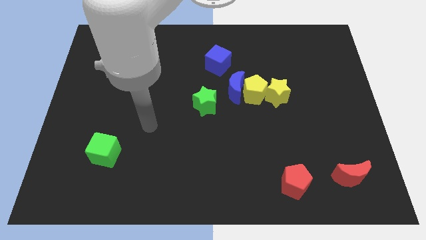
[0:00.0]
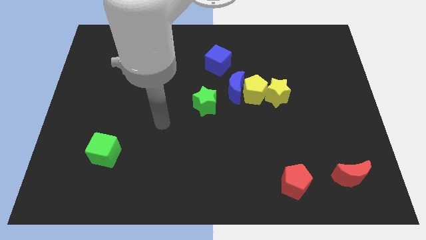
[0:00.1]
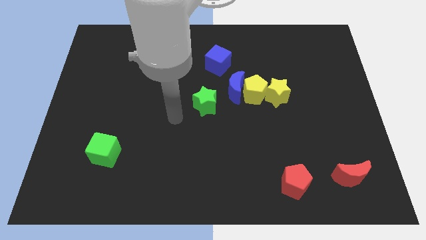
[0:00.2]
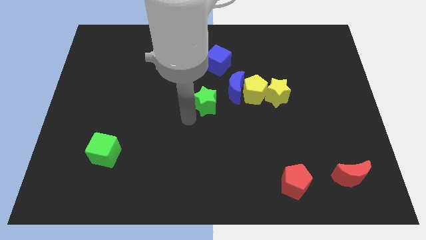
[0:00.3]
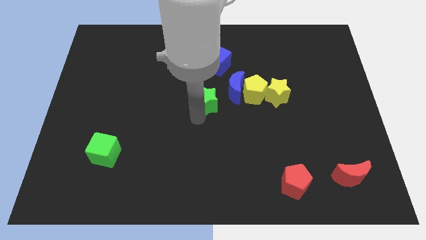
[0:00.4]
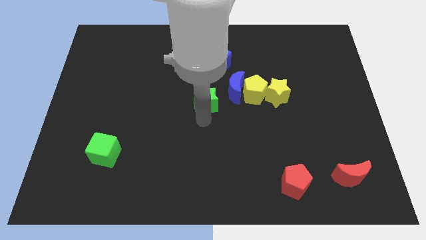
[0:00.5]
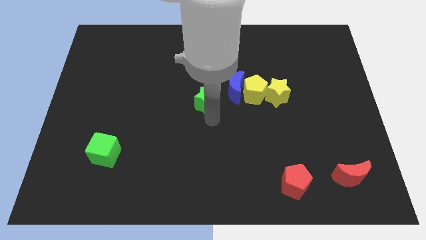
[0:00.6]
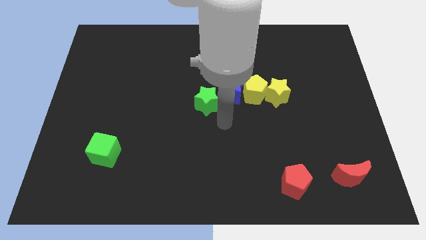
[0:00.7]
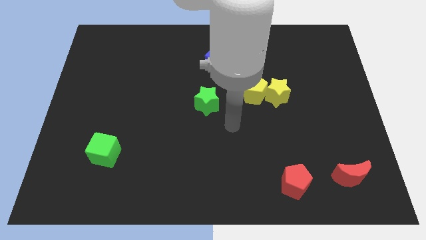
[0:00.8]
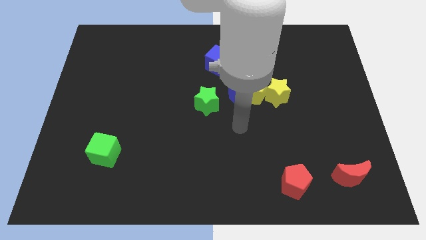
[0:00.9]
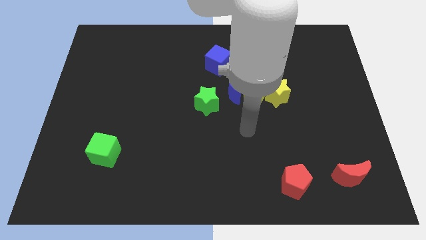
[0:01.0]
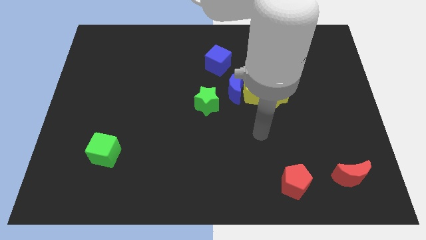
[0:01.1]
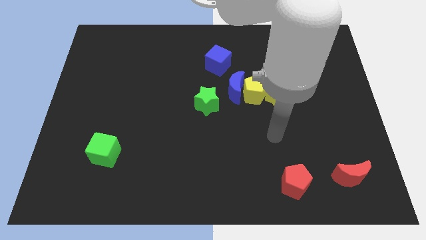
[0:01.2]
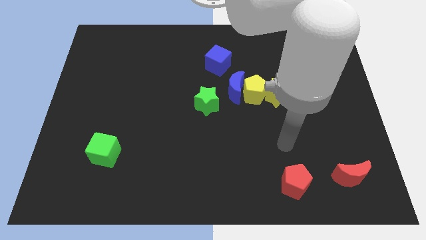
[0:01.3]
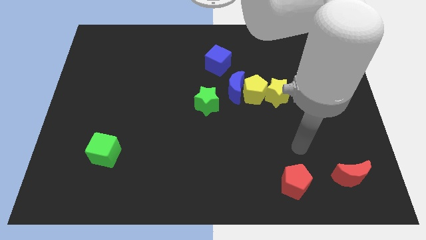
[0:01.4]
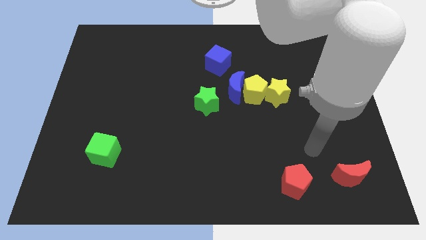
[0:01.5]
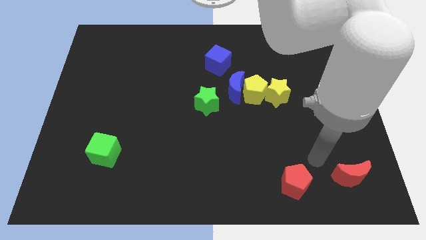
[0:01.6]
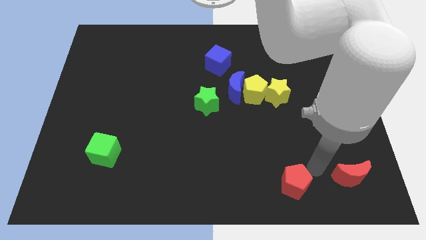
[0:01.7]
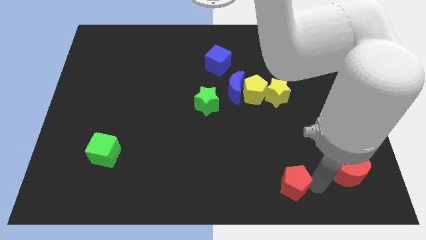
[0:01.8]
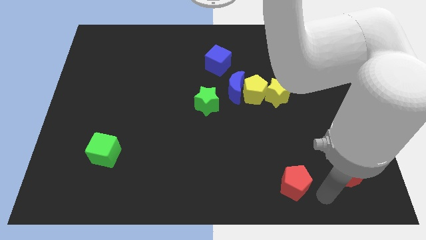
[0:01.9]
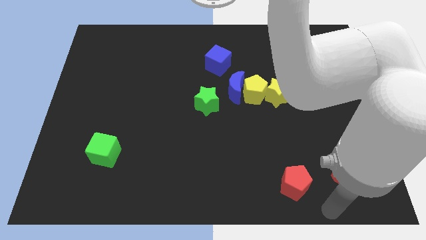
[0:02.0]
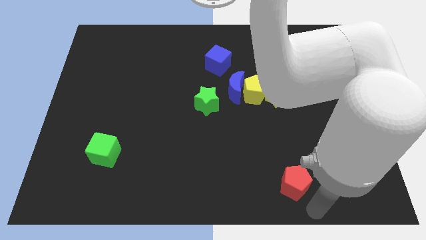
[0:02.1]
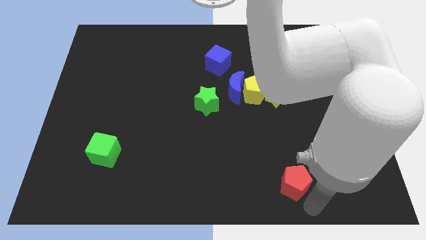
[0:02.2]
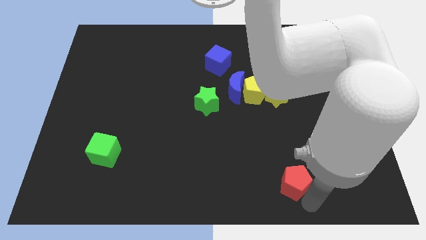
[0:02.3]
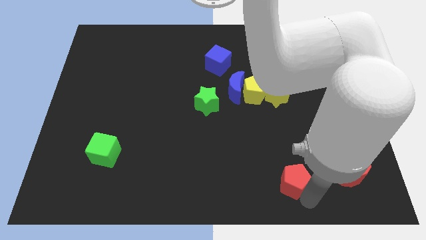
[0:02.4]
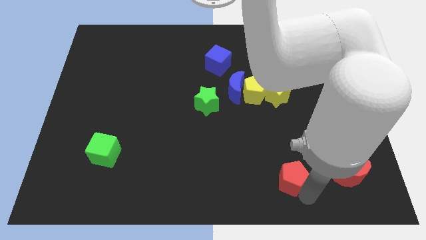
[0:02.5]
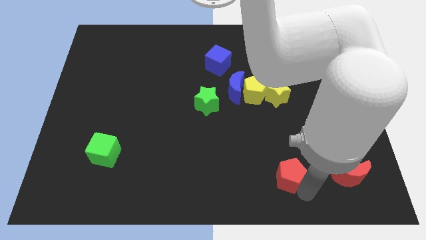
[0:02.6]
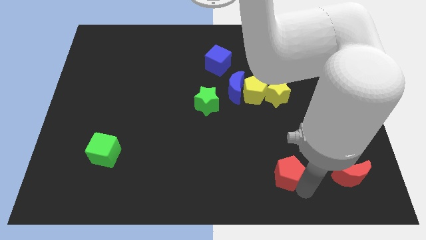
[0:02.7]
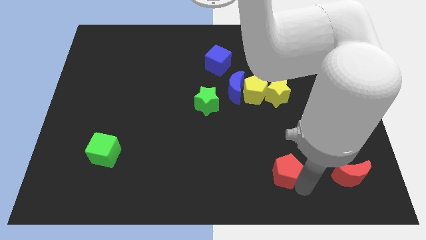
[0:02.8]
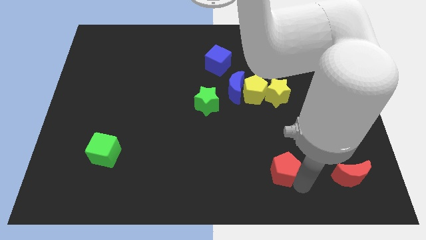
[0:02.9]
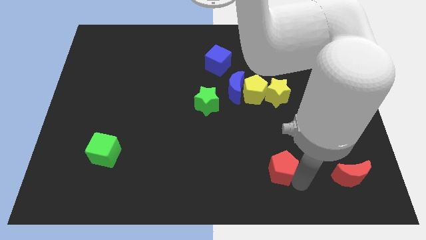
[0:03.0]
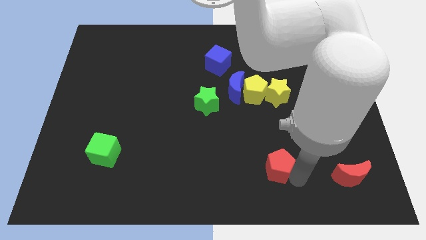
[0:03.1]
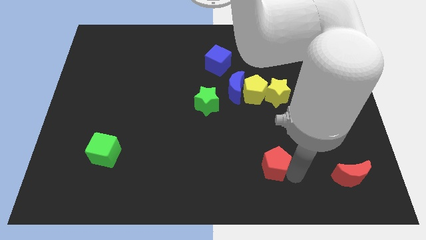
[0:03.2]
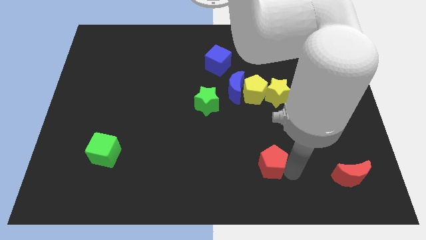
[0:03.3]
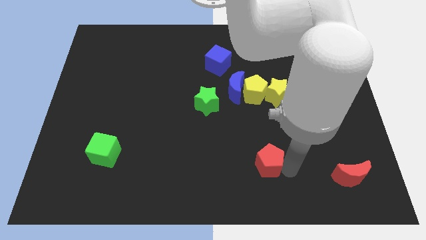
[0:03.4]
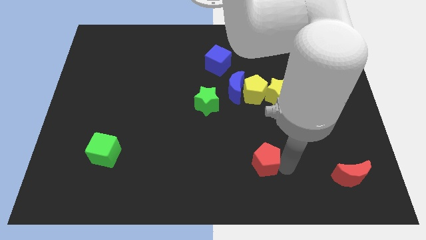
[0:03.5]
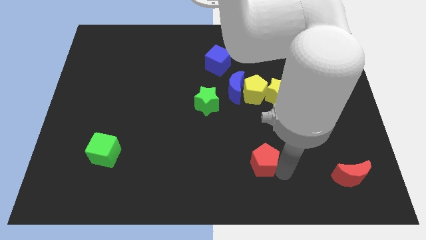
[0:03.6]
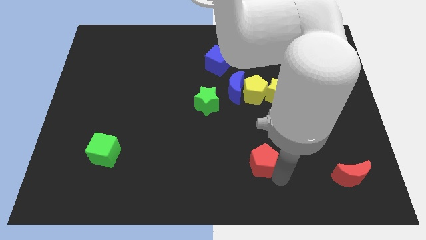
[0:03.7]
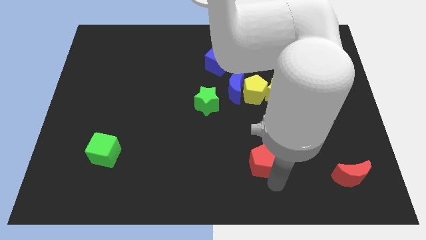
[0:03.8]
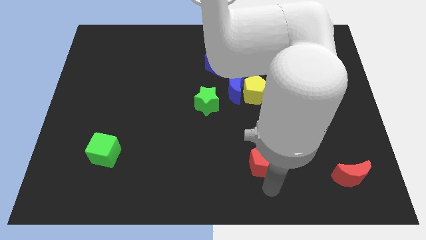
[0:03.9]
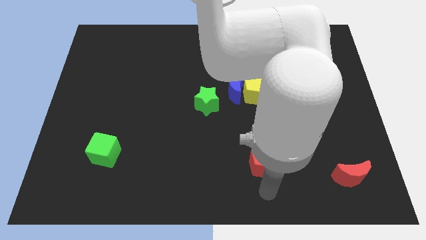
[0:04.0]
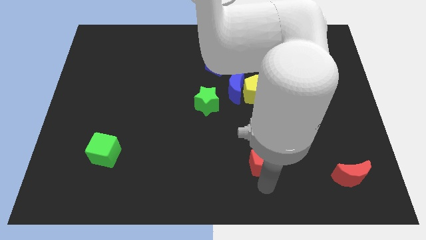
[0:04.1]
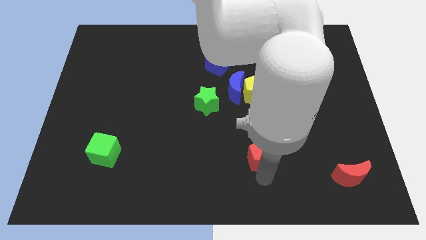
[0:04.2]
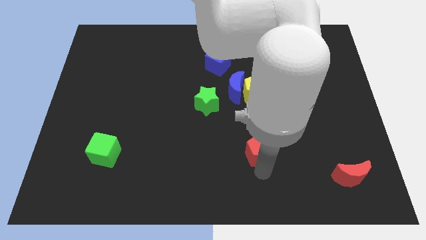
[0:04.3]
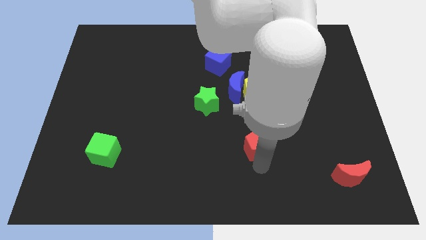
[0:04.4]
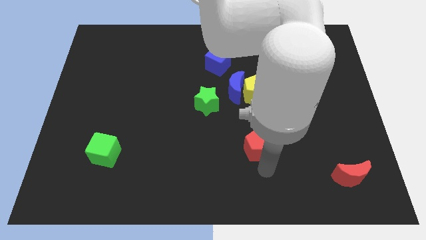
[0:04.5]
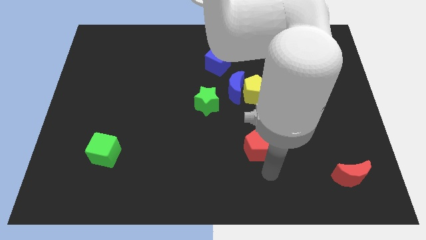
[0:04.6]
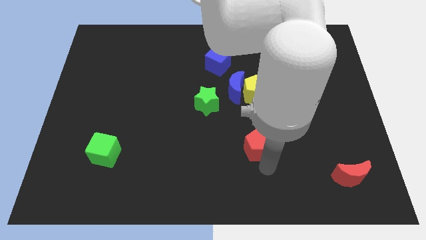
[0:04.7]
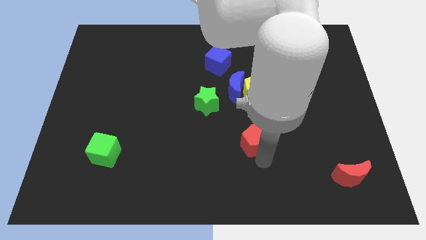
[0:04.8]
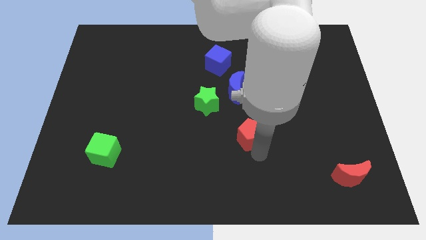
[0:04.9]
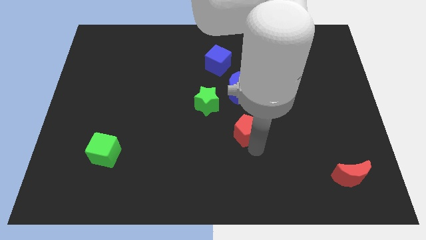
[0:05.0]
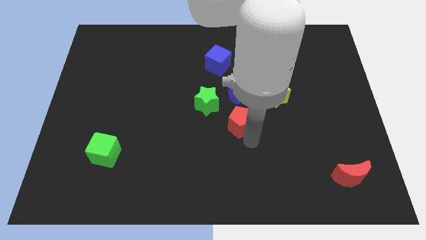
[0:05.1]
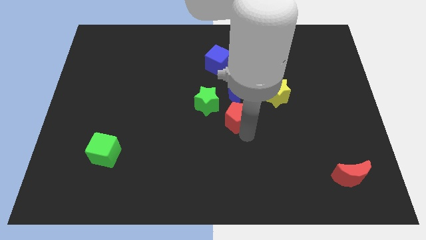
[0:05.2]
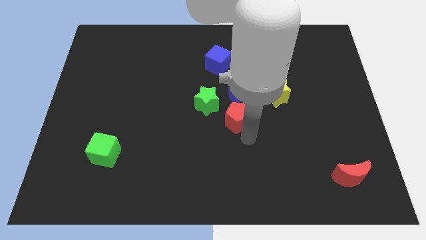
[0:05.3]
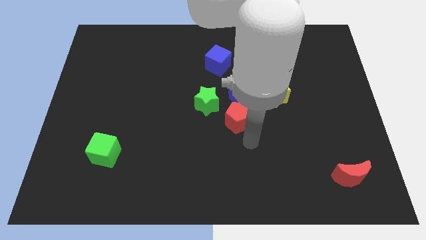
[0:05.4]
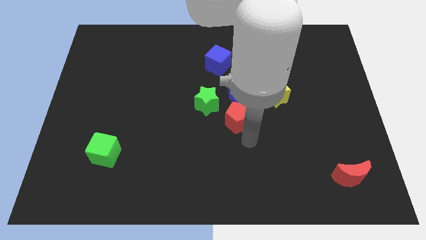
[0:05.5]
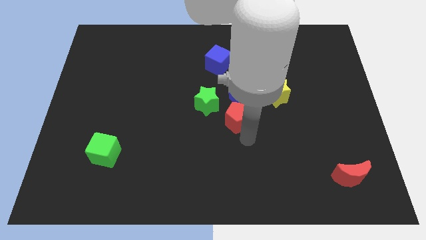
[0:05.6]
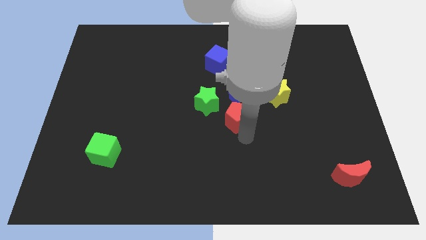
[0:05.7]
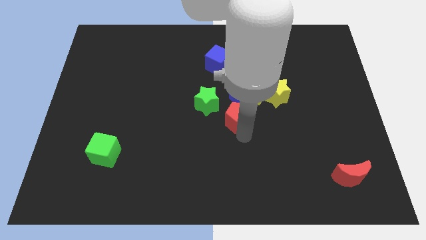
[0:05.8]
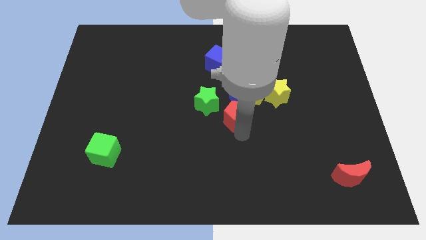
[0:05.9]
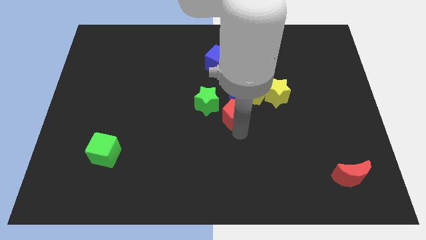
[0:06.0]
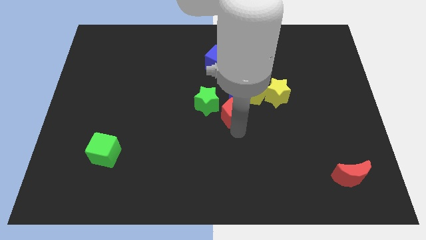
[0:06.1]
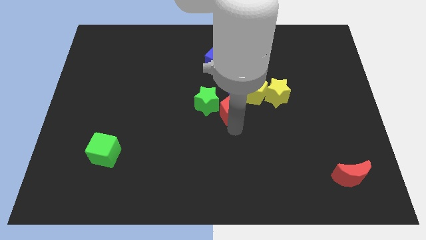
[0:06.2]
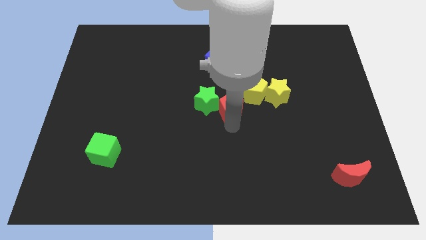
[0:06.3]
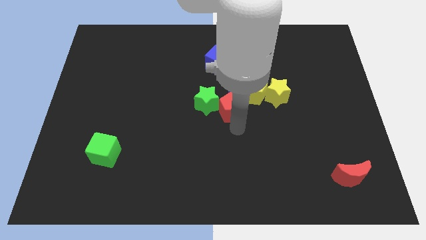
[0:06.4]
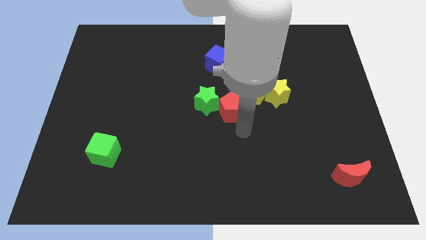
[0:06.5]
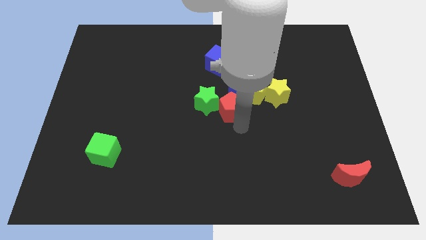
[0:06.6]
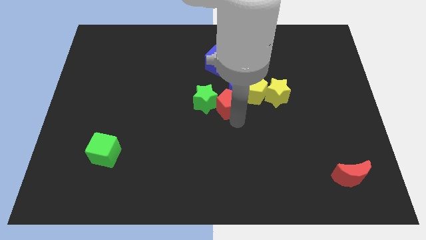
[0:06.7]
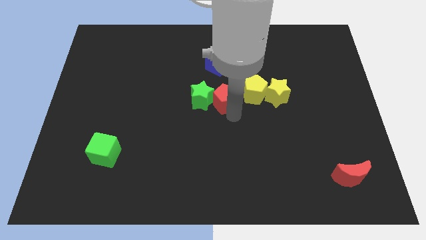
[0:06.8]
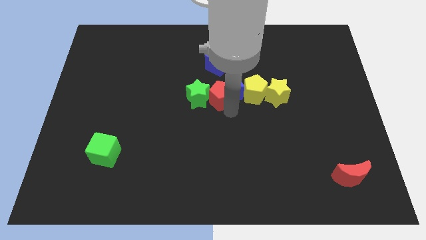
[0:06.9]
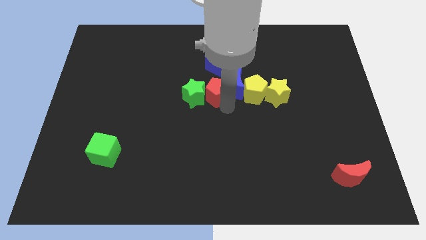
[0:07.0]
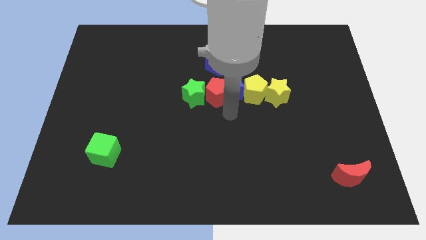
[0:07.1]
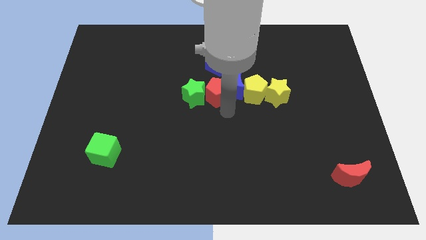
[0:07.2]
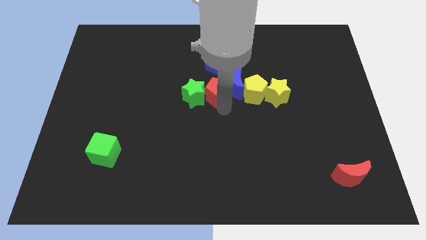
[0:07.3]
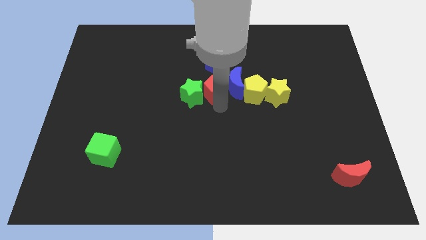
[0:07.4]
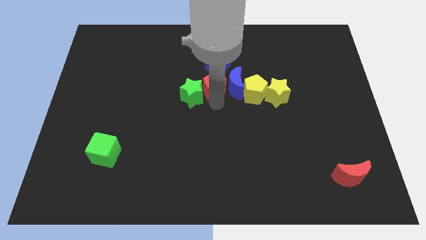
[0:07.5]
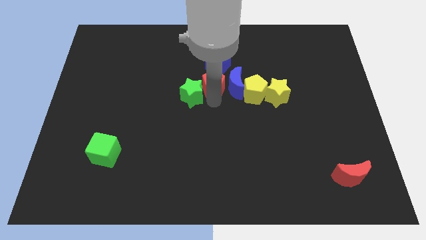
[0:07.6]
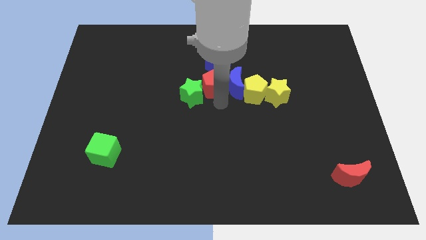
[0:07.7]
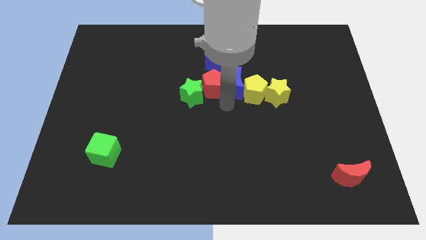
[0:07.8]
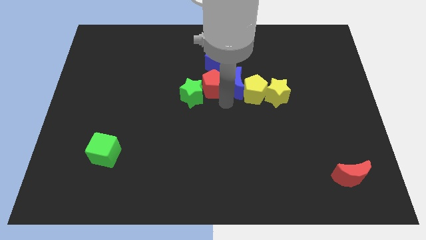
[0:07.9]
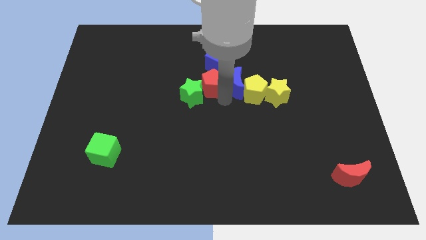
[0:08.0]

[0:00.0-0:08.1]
put the red pentagon above the green star
